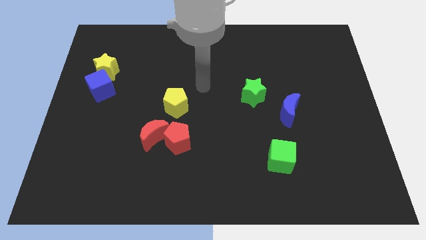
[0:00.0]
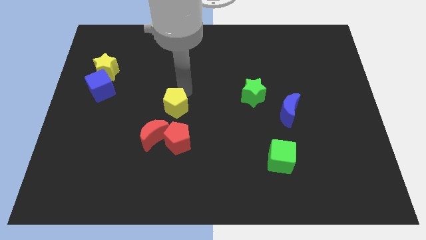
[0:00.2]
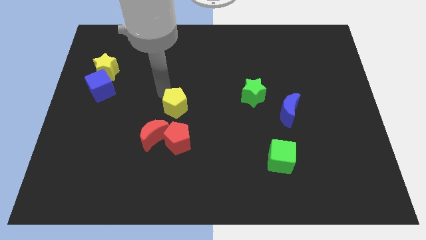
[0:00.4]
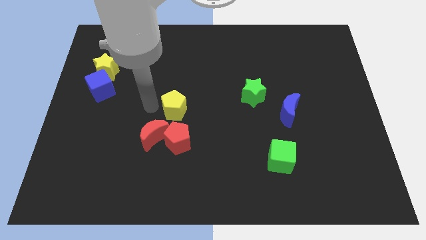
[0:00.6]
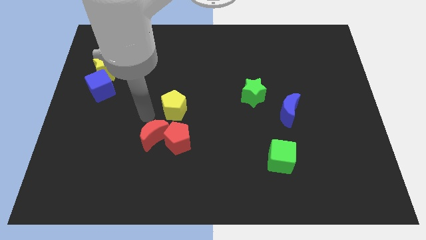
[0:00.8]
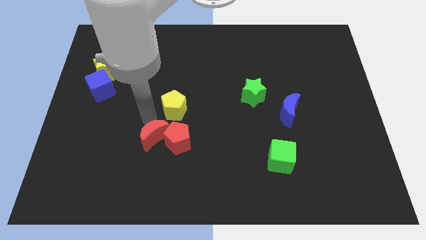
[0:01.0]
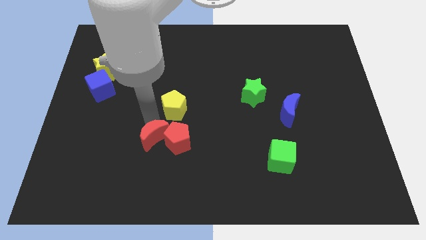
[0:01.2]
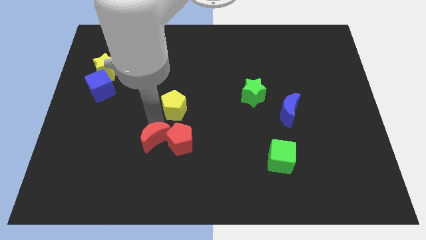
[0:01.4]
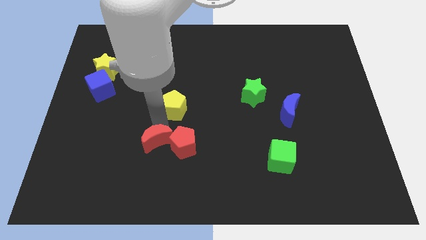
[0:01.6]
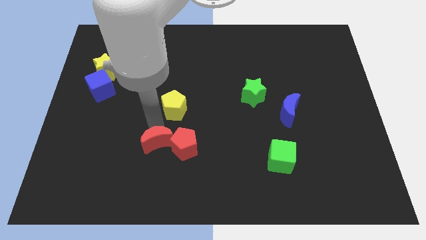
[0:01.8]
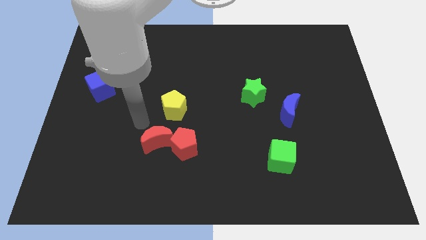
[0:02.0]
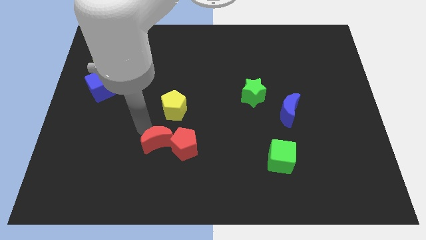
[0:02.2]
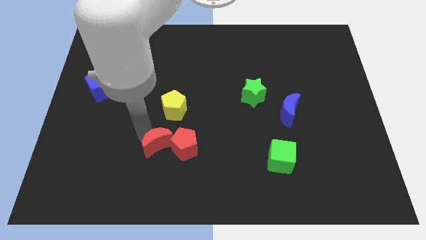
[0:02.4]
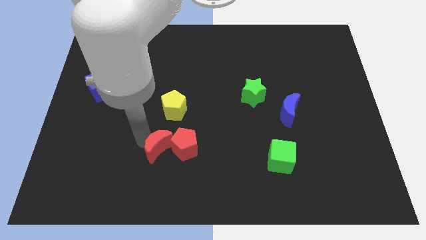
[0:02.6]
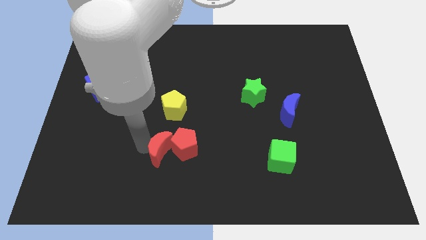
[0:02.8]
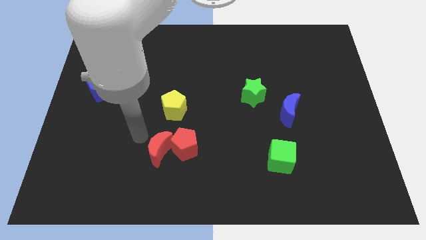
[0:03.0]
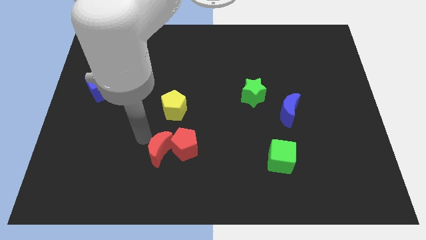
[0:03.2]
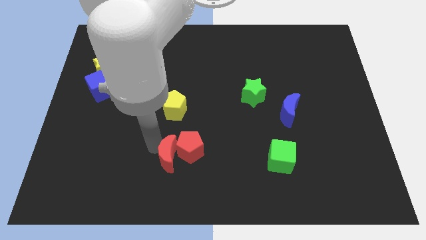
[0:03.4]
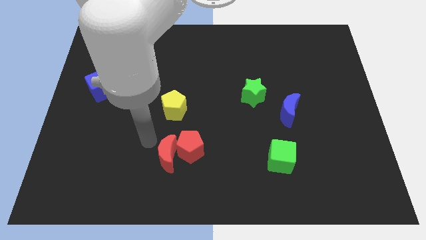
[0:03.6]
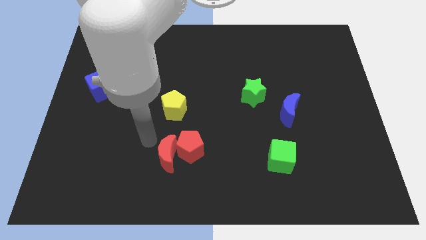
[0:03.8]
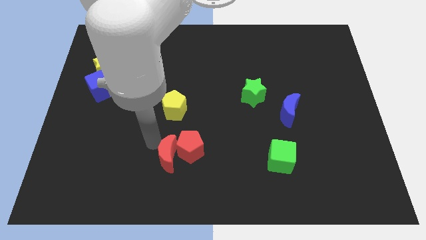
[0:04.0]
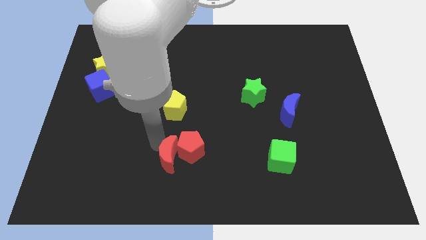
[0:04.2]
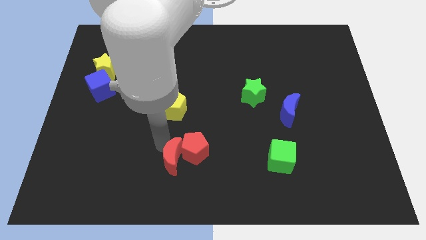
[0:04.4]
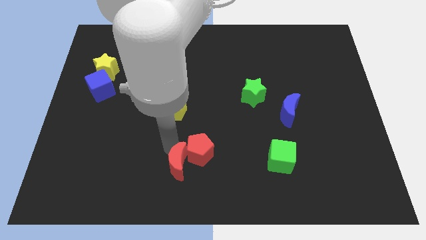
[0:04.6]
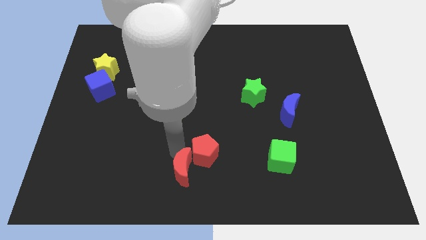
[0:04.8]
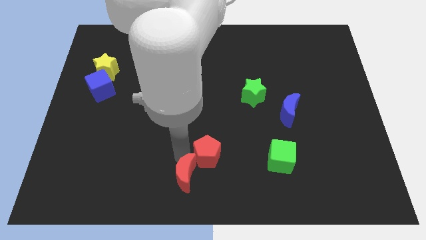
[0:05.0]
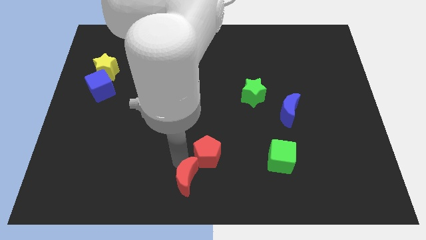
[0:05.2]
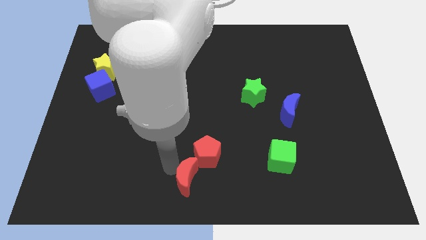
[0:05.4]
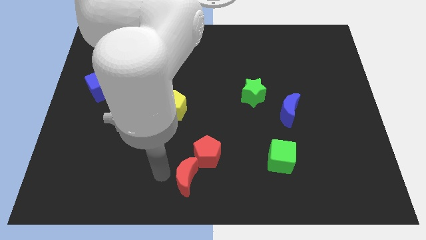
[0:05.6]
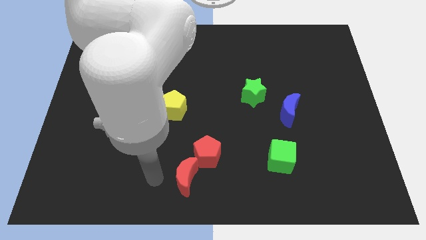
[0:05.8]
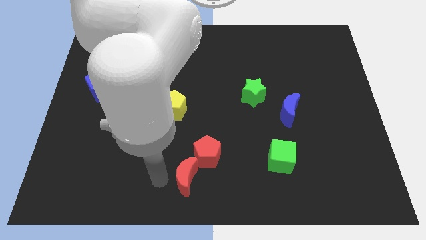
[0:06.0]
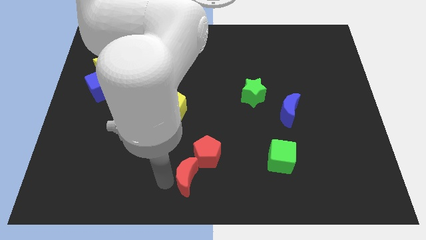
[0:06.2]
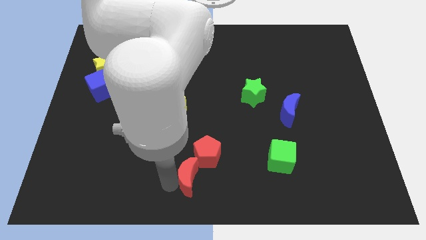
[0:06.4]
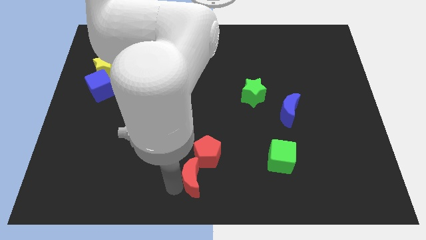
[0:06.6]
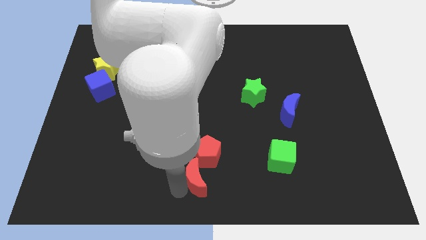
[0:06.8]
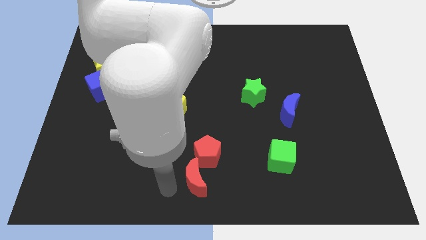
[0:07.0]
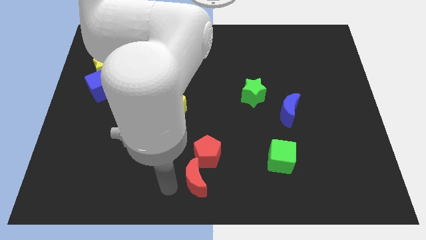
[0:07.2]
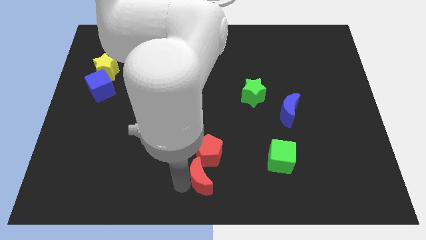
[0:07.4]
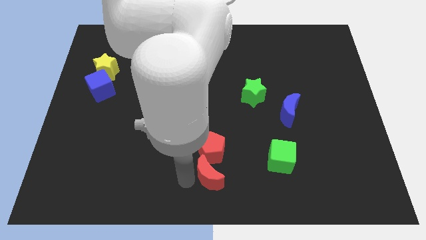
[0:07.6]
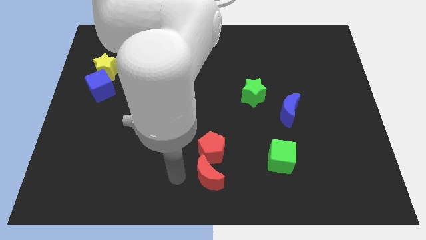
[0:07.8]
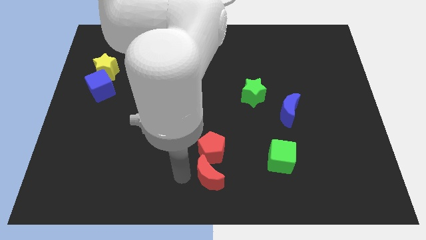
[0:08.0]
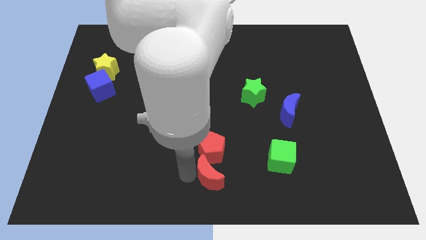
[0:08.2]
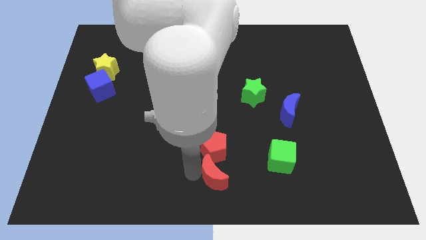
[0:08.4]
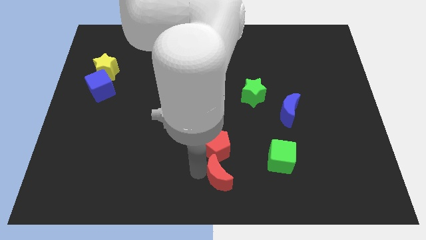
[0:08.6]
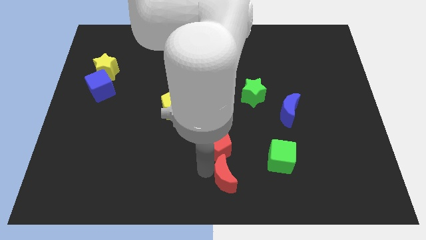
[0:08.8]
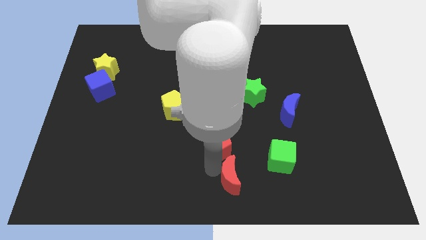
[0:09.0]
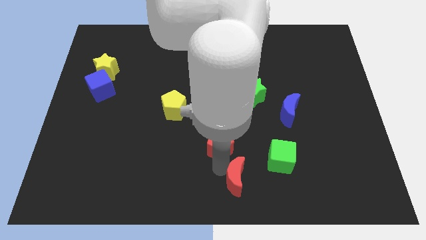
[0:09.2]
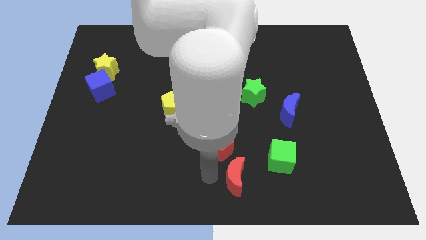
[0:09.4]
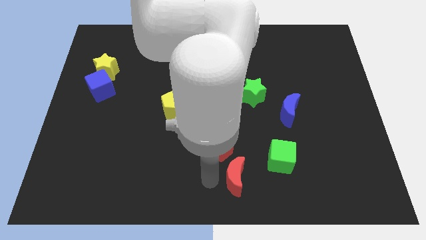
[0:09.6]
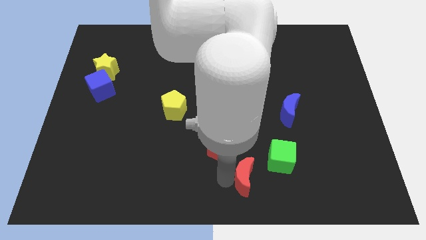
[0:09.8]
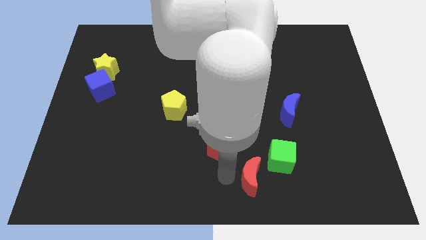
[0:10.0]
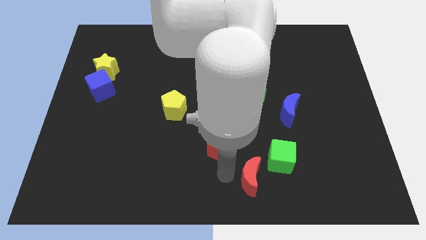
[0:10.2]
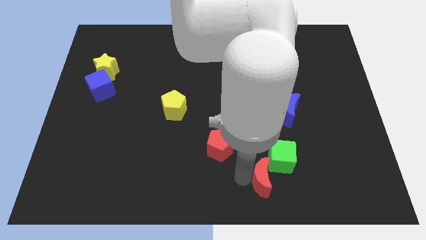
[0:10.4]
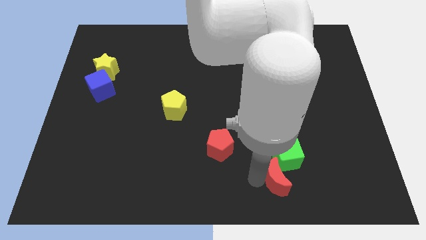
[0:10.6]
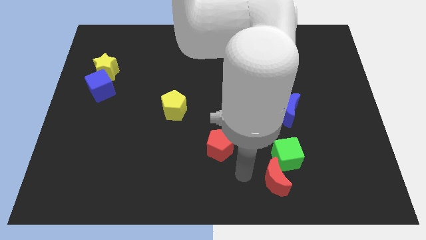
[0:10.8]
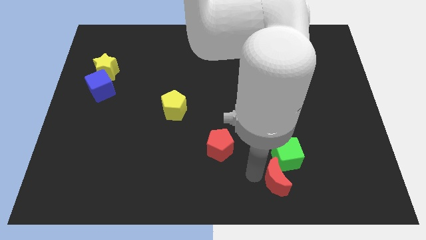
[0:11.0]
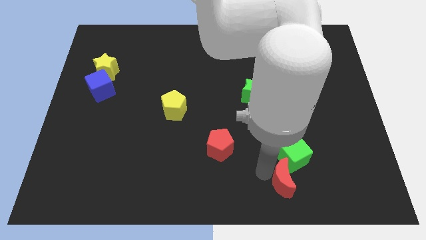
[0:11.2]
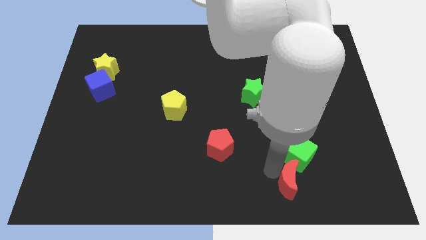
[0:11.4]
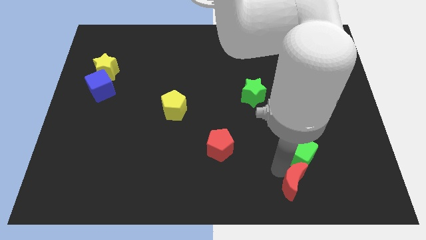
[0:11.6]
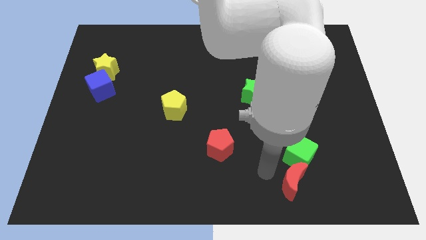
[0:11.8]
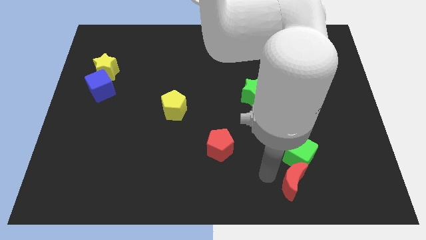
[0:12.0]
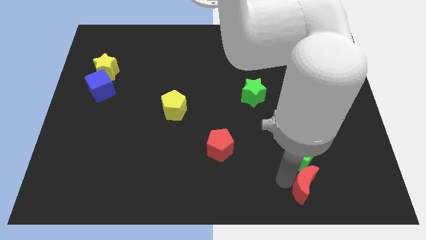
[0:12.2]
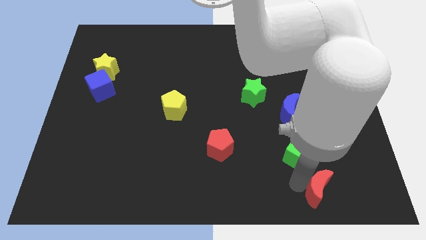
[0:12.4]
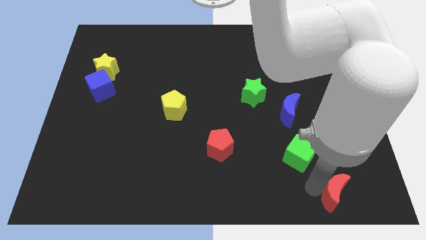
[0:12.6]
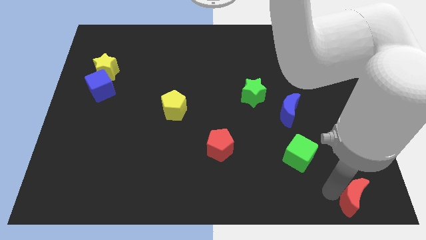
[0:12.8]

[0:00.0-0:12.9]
slide the red moon to the lower right corner
